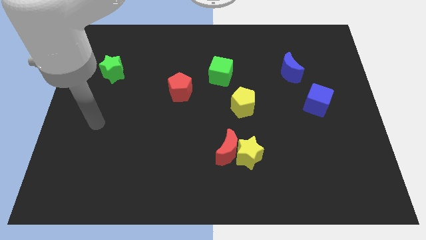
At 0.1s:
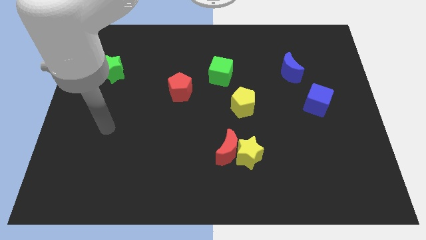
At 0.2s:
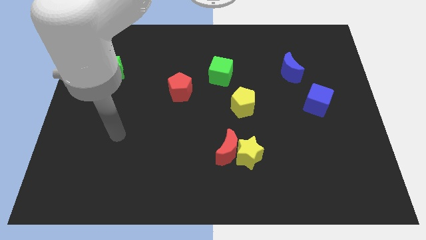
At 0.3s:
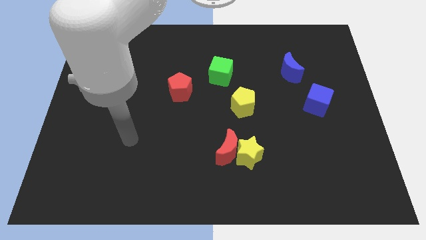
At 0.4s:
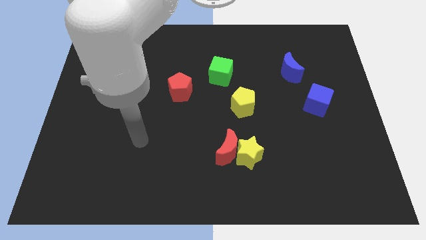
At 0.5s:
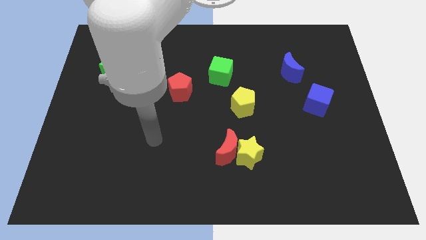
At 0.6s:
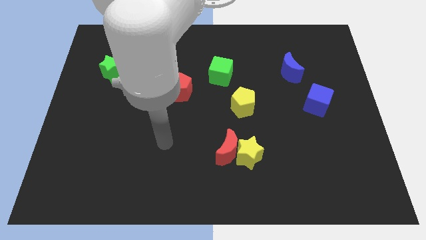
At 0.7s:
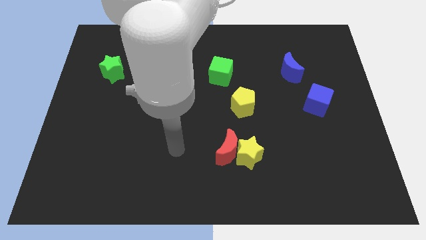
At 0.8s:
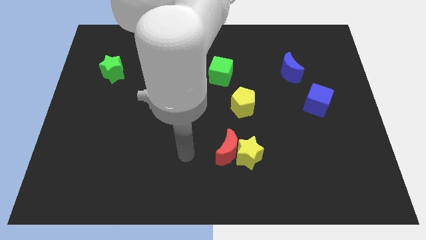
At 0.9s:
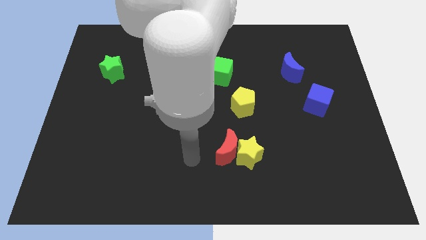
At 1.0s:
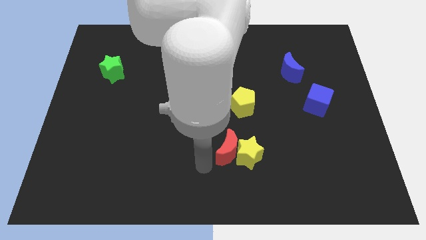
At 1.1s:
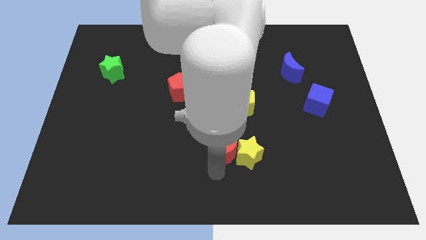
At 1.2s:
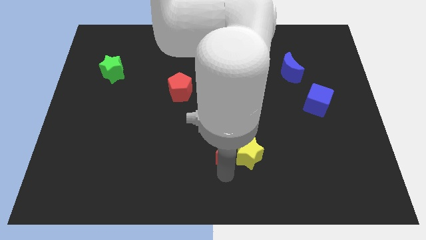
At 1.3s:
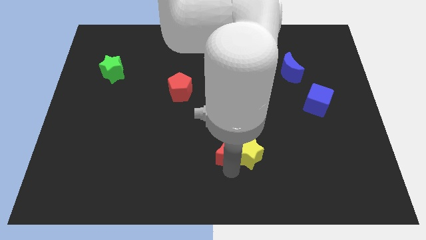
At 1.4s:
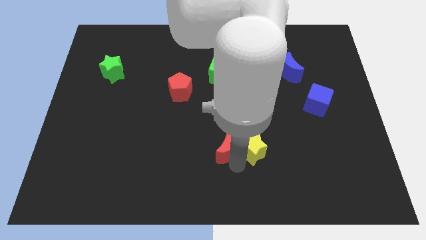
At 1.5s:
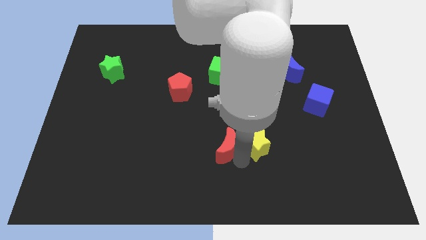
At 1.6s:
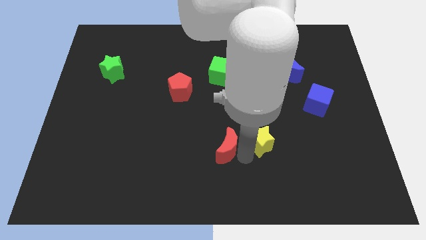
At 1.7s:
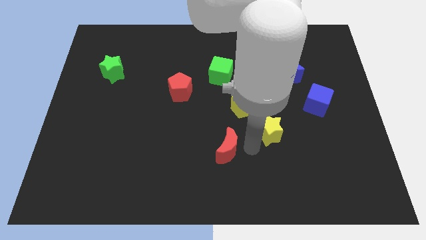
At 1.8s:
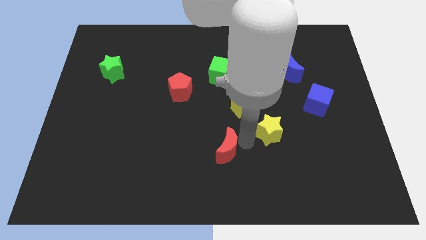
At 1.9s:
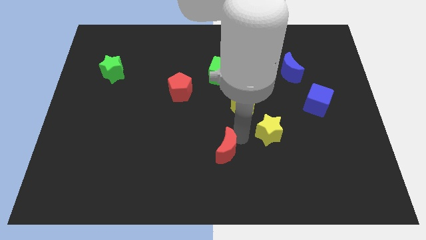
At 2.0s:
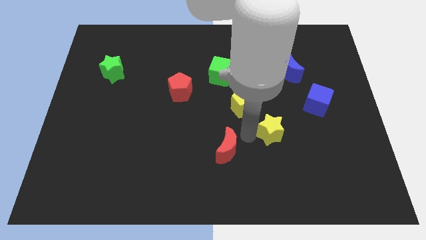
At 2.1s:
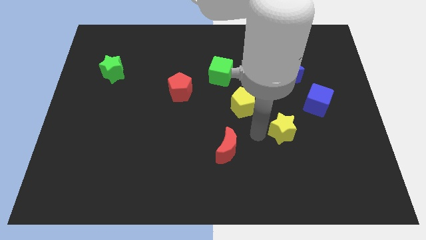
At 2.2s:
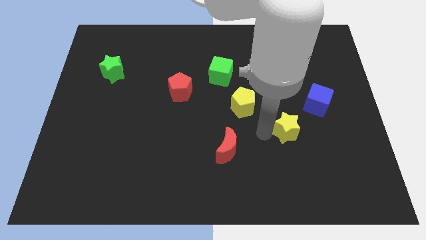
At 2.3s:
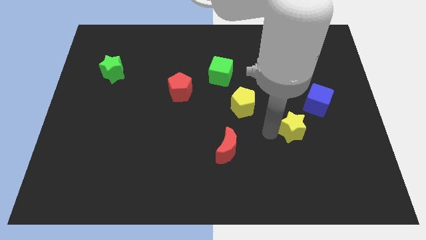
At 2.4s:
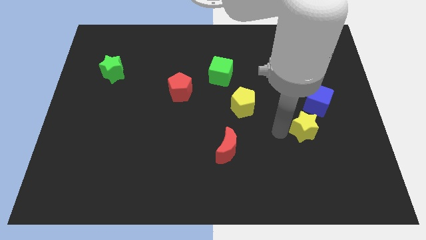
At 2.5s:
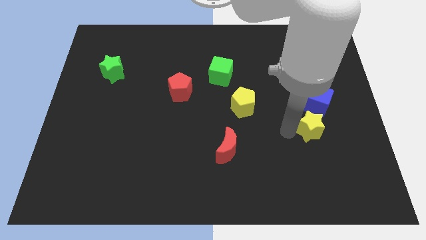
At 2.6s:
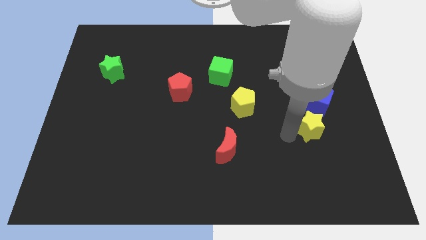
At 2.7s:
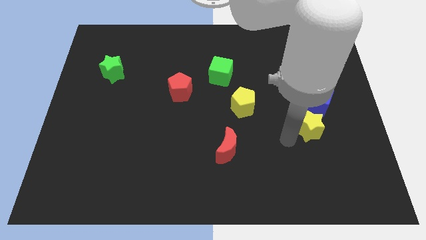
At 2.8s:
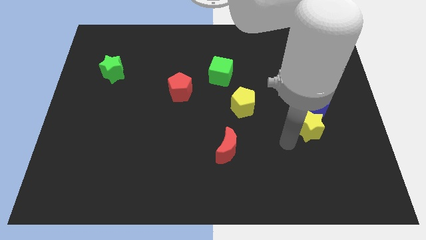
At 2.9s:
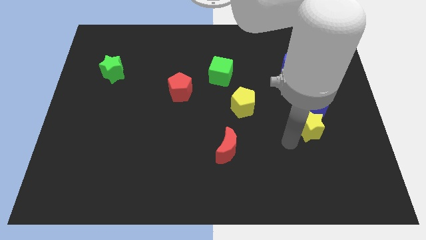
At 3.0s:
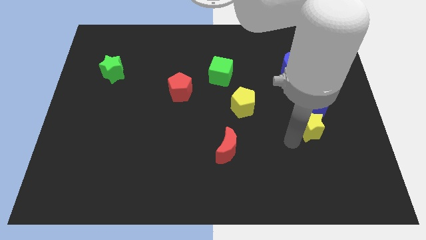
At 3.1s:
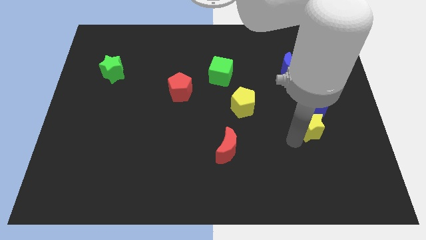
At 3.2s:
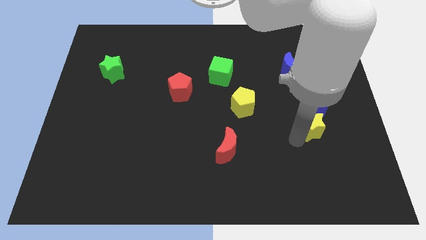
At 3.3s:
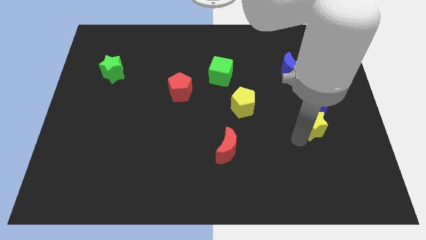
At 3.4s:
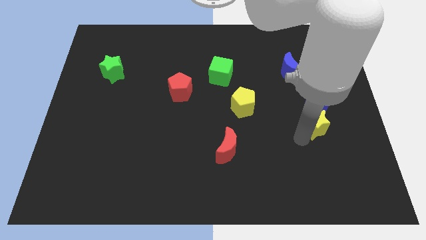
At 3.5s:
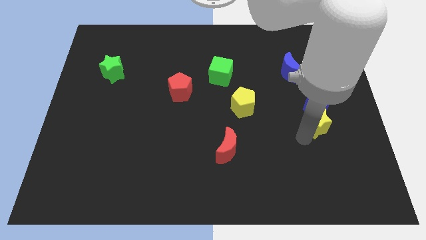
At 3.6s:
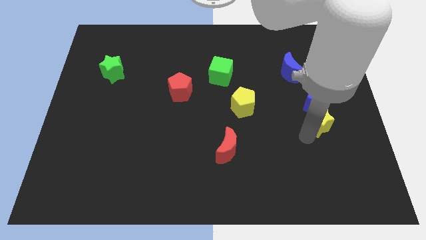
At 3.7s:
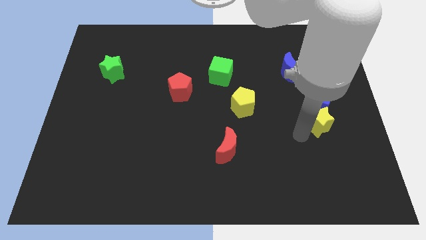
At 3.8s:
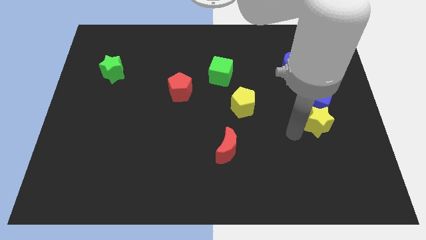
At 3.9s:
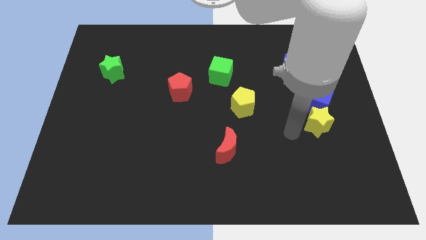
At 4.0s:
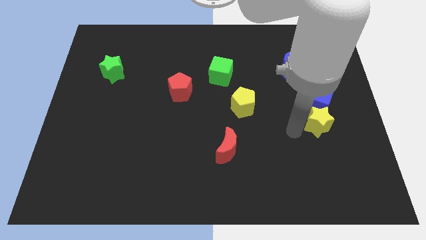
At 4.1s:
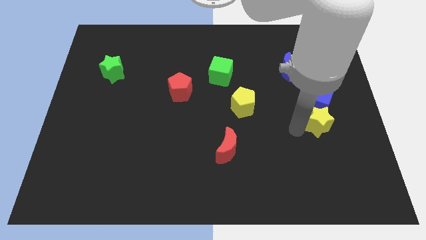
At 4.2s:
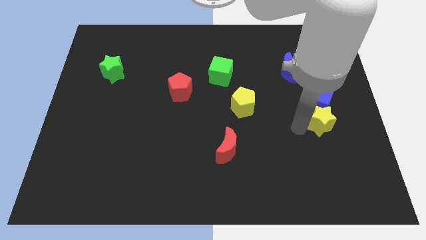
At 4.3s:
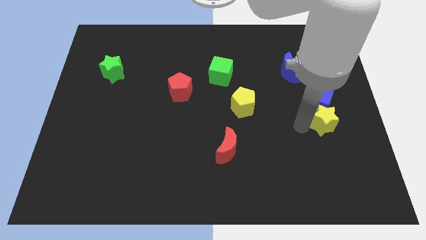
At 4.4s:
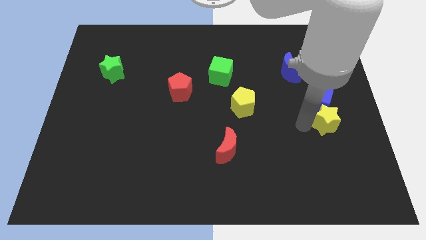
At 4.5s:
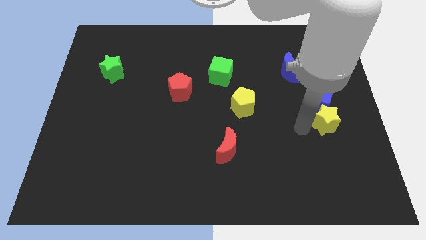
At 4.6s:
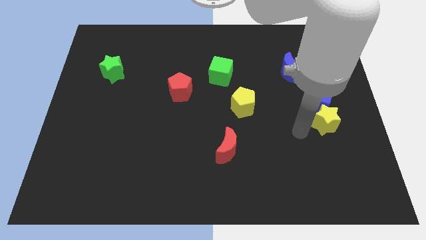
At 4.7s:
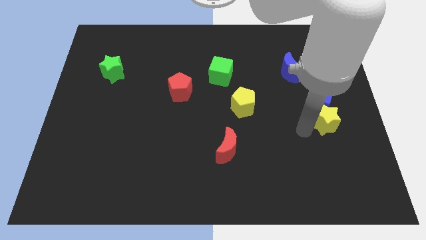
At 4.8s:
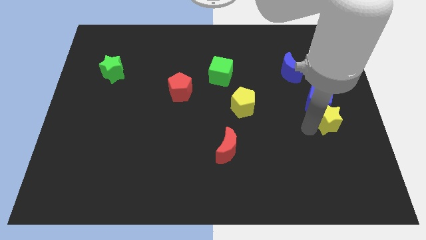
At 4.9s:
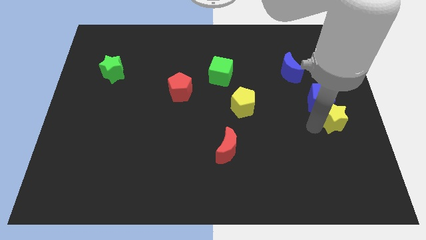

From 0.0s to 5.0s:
put the yellow star to the right side

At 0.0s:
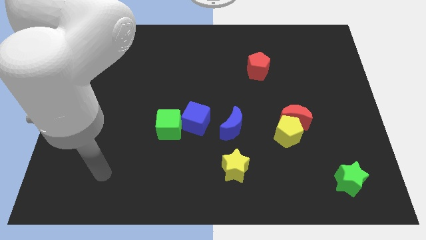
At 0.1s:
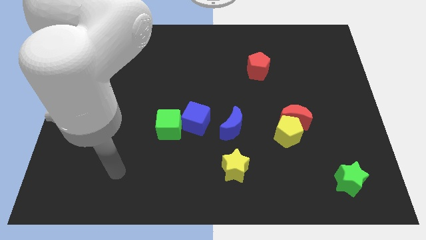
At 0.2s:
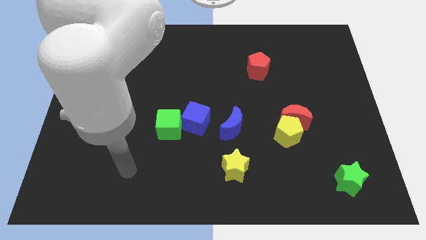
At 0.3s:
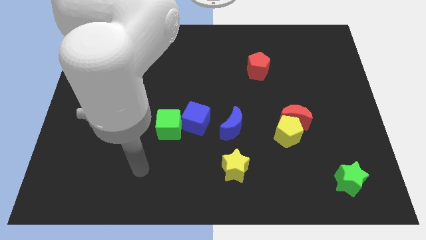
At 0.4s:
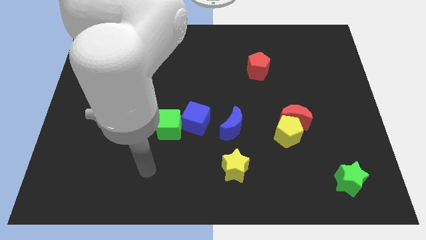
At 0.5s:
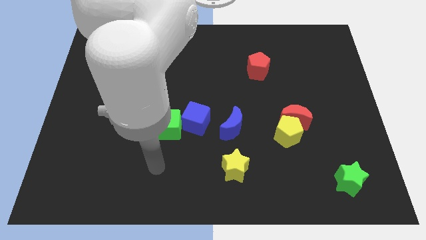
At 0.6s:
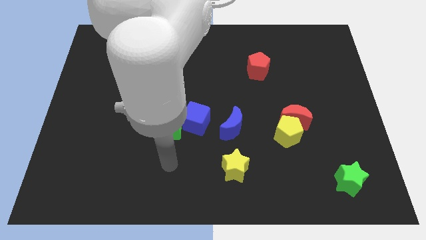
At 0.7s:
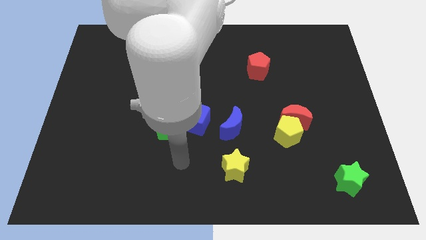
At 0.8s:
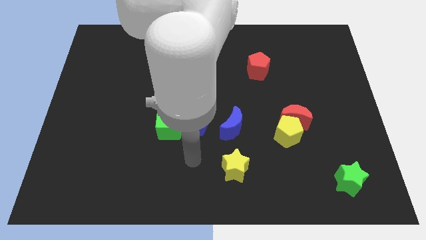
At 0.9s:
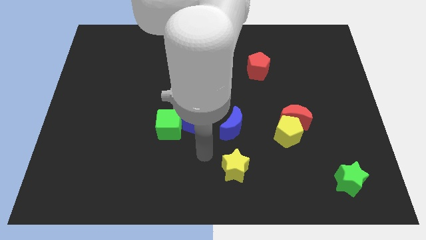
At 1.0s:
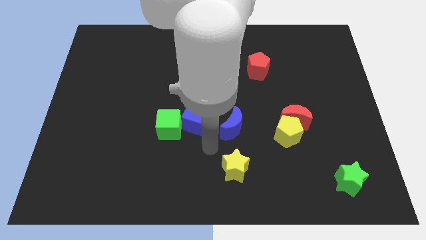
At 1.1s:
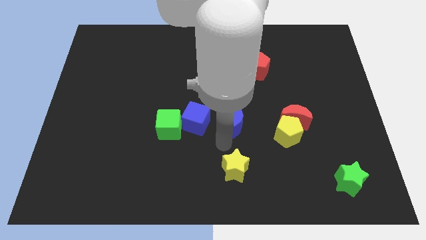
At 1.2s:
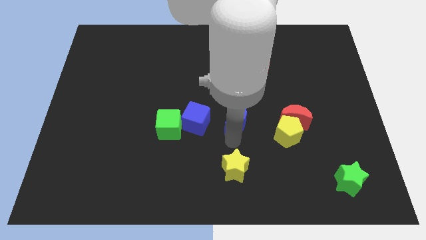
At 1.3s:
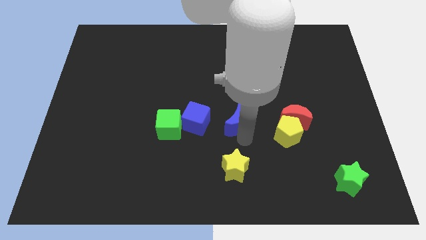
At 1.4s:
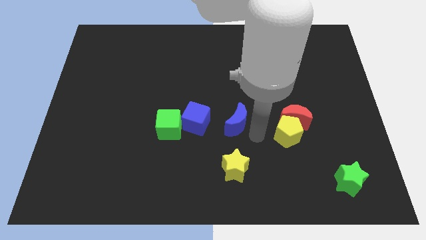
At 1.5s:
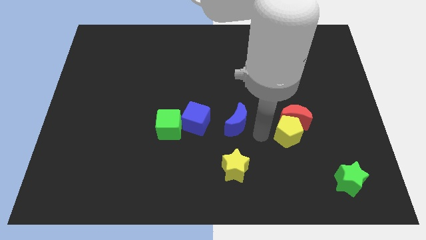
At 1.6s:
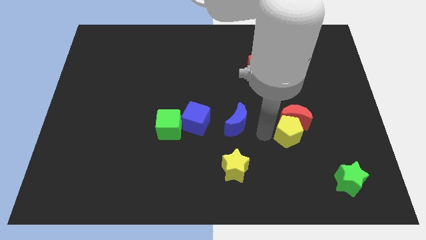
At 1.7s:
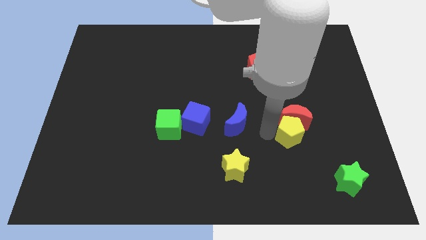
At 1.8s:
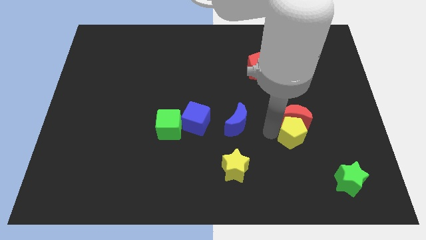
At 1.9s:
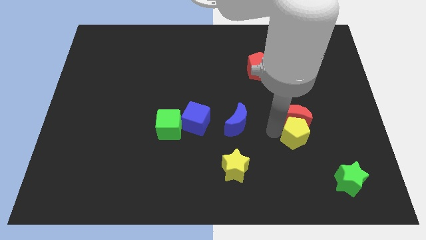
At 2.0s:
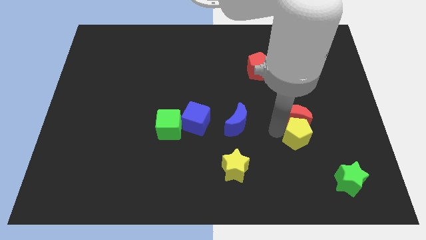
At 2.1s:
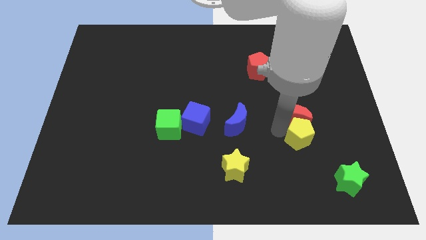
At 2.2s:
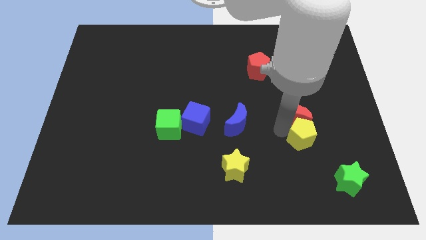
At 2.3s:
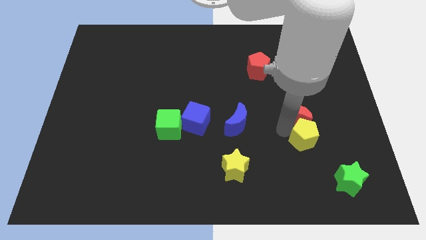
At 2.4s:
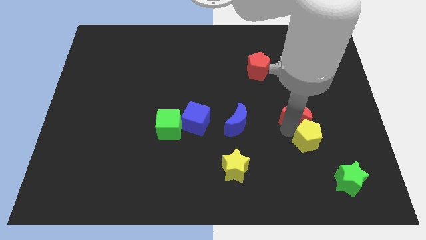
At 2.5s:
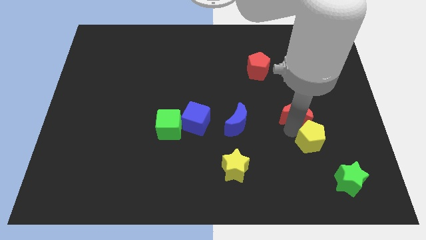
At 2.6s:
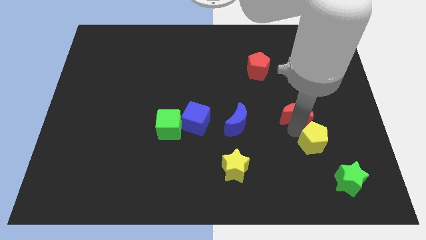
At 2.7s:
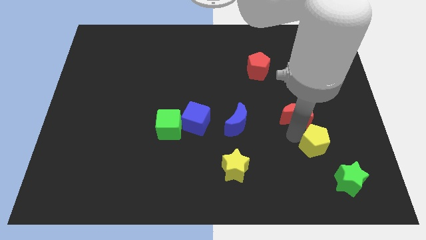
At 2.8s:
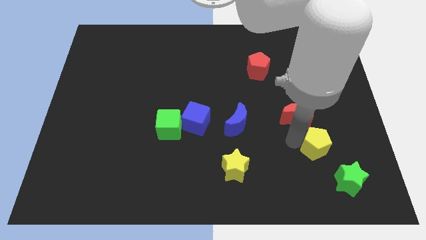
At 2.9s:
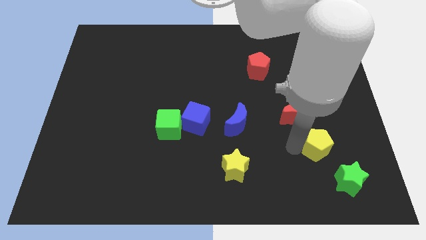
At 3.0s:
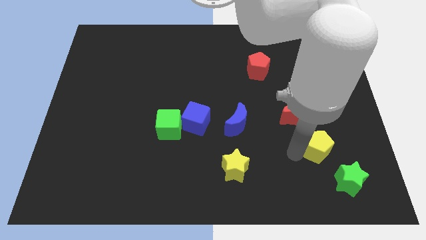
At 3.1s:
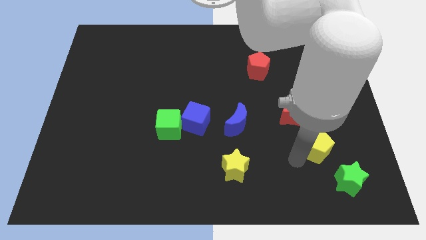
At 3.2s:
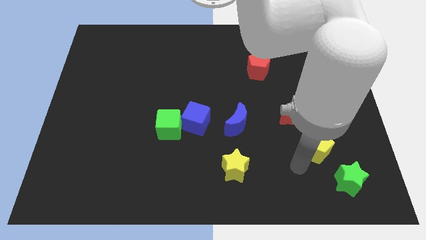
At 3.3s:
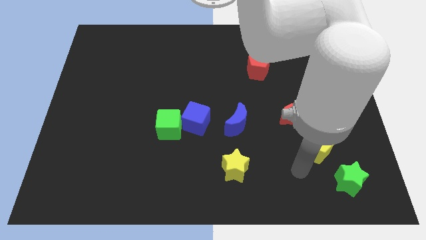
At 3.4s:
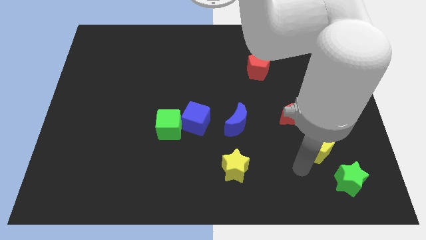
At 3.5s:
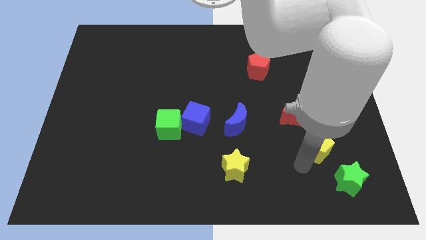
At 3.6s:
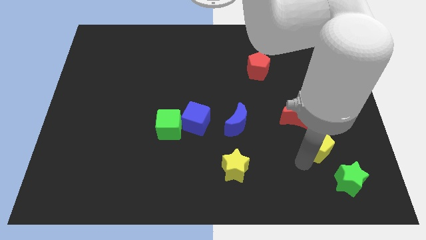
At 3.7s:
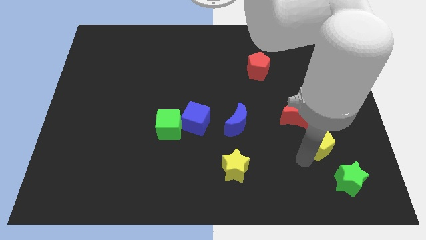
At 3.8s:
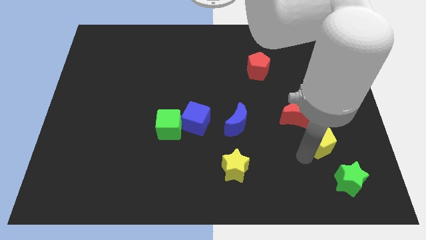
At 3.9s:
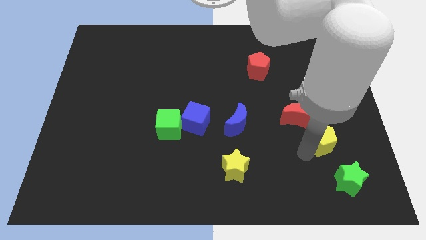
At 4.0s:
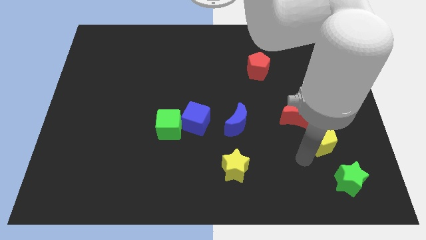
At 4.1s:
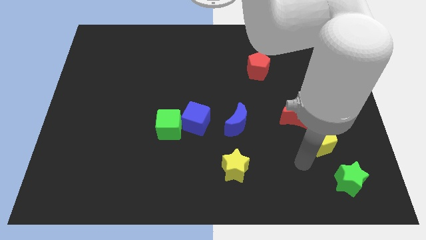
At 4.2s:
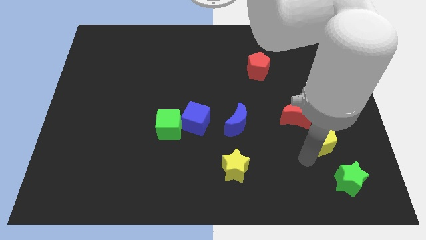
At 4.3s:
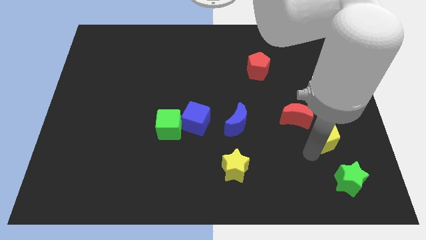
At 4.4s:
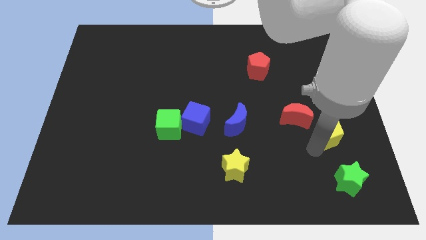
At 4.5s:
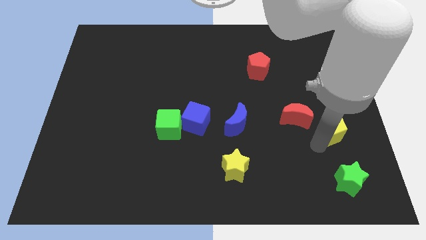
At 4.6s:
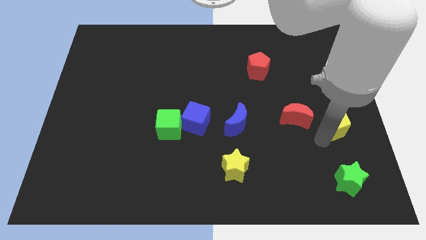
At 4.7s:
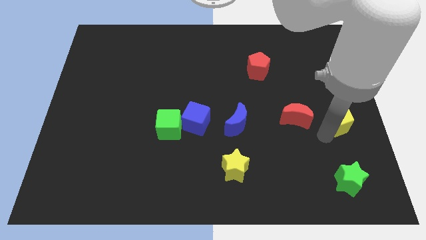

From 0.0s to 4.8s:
move the yellow pentagon to the center right
